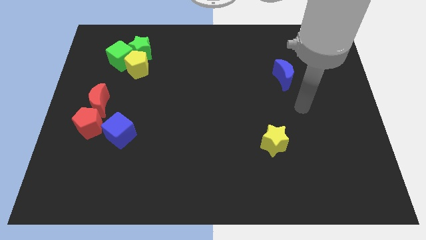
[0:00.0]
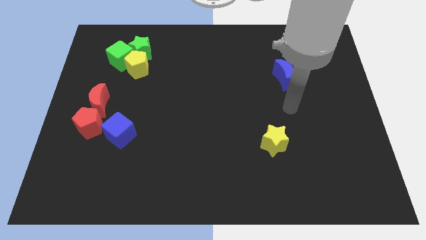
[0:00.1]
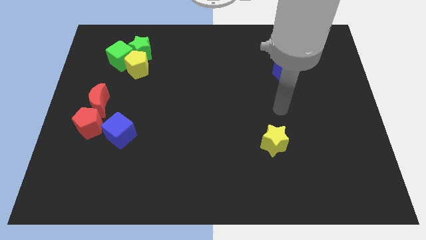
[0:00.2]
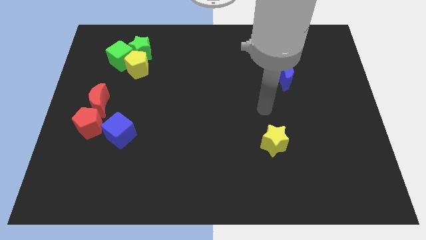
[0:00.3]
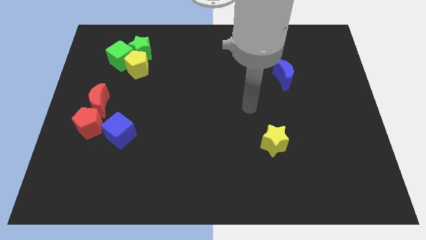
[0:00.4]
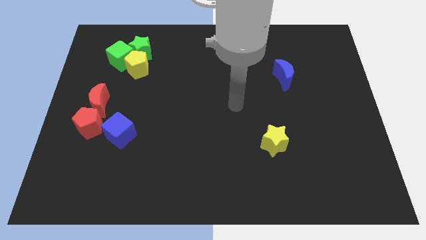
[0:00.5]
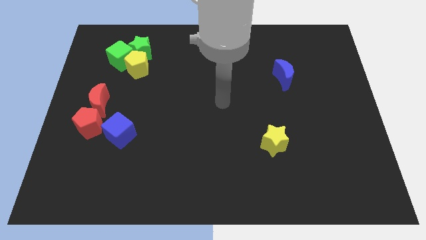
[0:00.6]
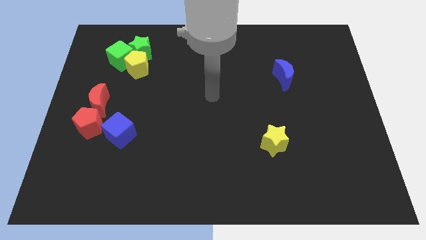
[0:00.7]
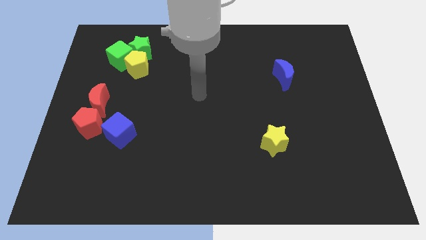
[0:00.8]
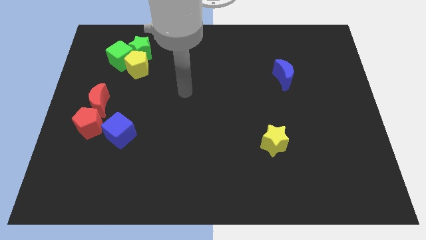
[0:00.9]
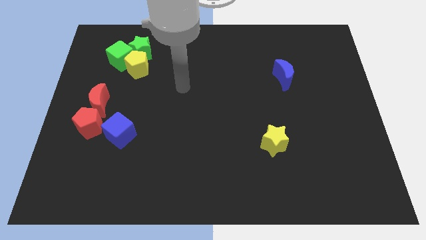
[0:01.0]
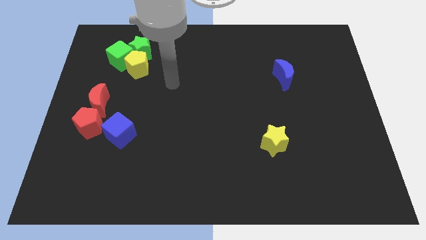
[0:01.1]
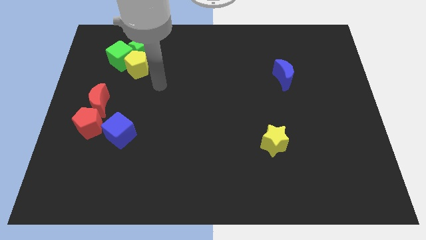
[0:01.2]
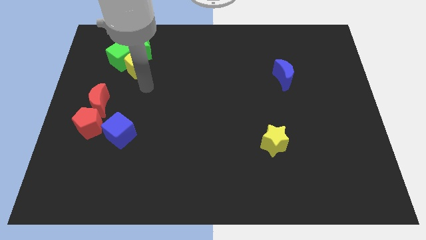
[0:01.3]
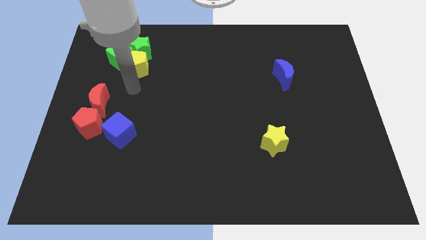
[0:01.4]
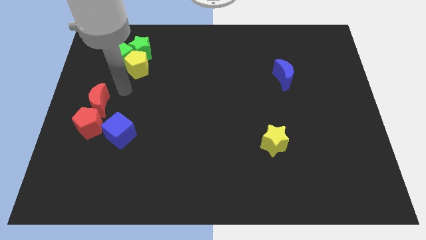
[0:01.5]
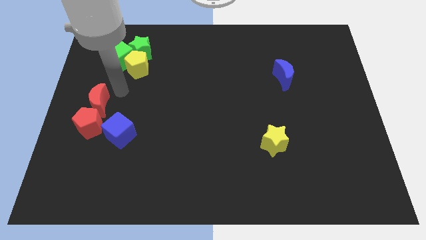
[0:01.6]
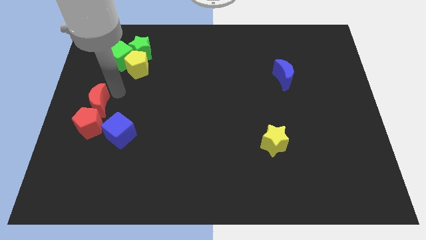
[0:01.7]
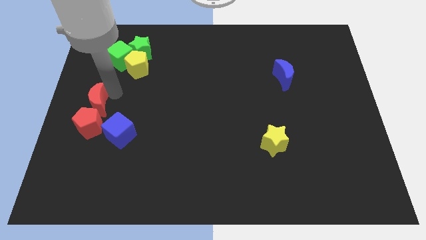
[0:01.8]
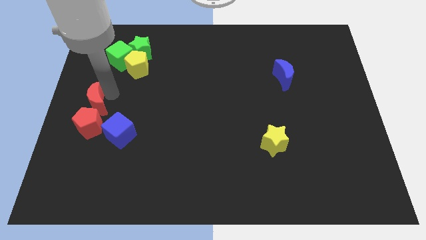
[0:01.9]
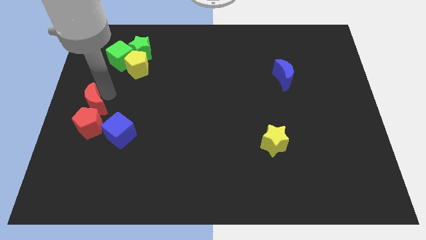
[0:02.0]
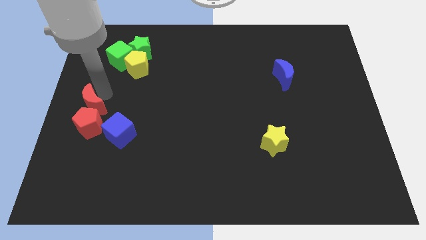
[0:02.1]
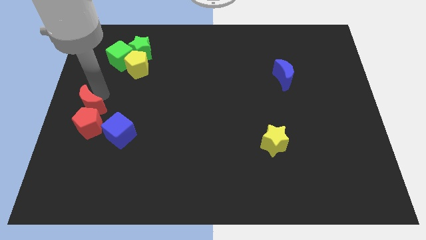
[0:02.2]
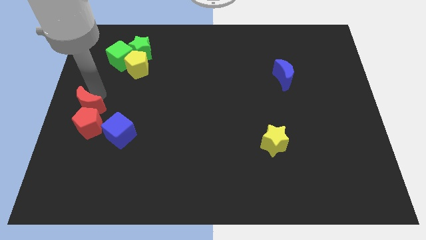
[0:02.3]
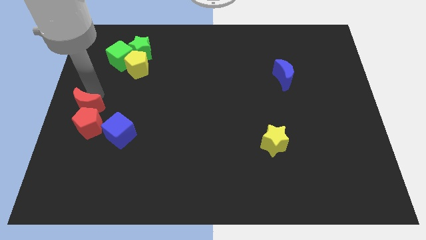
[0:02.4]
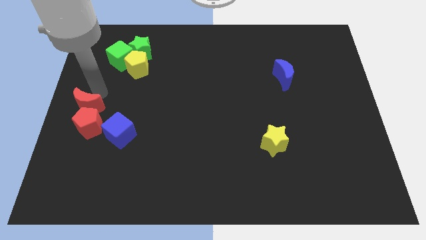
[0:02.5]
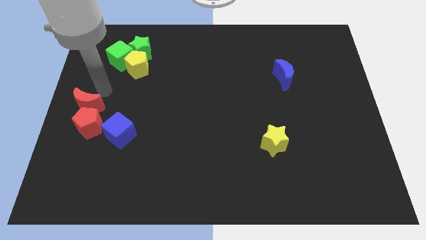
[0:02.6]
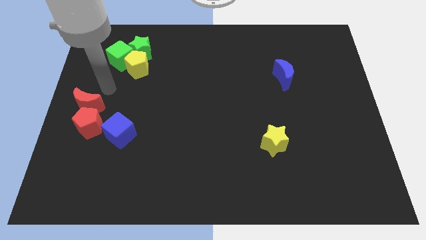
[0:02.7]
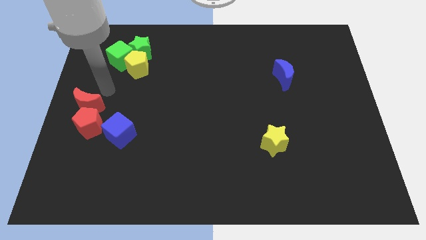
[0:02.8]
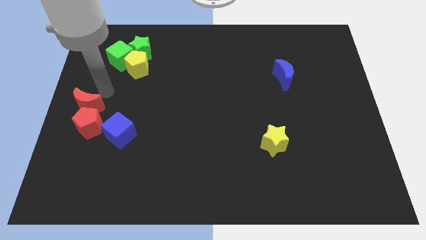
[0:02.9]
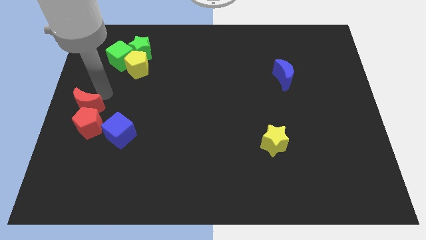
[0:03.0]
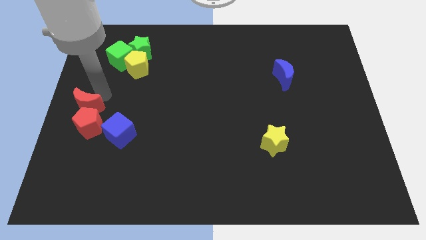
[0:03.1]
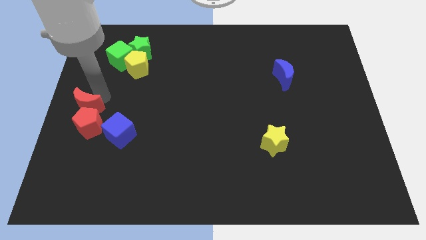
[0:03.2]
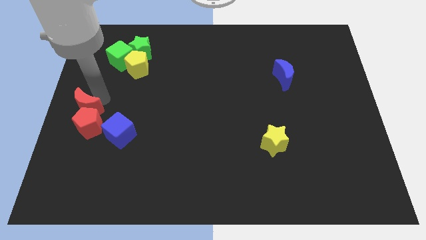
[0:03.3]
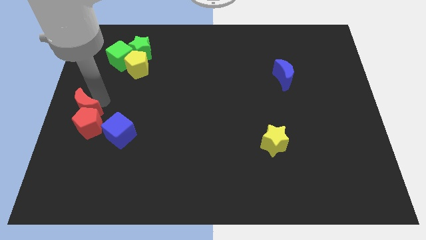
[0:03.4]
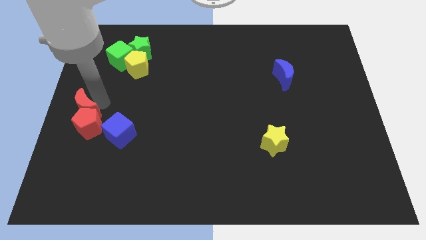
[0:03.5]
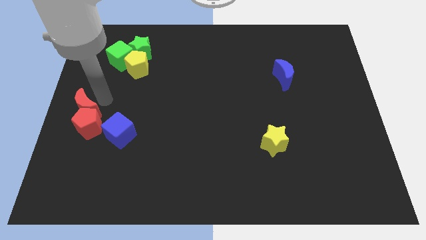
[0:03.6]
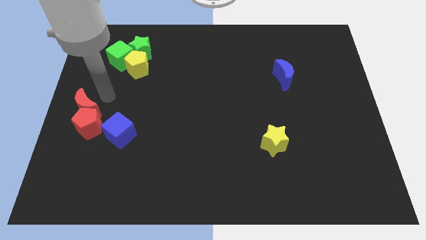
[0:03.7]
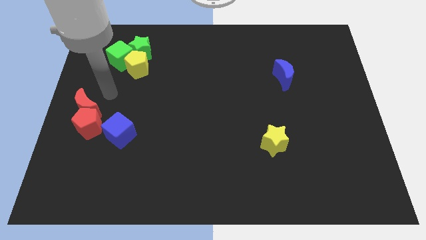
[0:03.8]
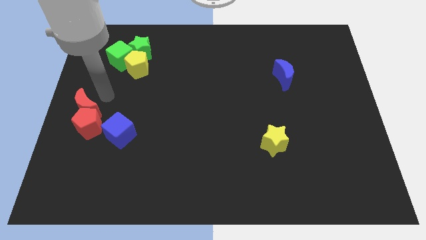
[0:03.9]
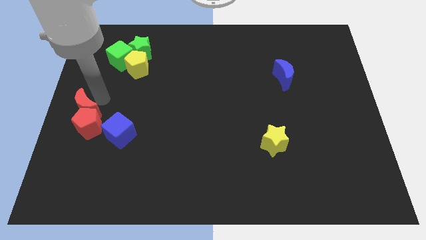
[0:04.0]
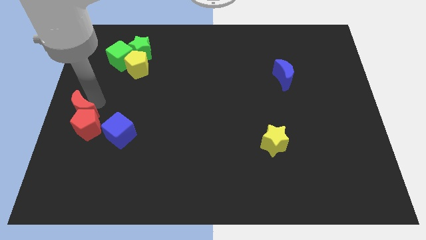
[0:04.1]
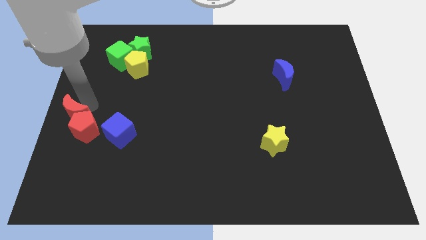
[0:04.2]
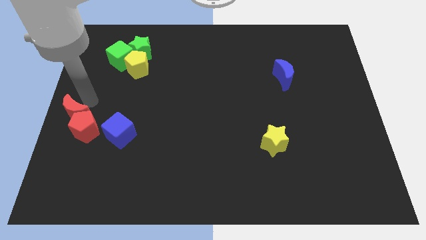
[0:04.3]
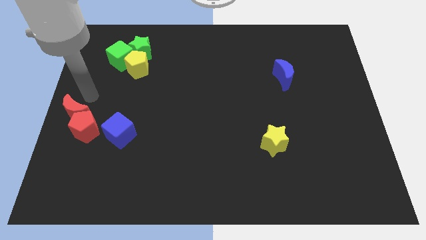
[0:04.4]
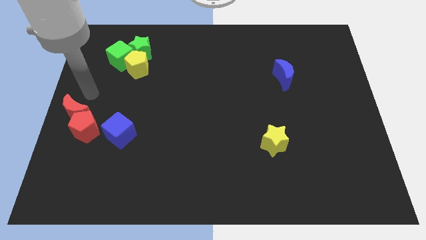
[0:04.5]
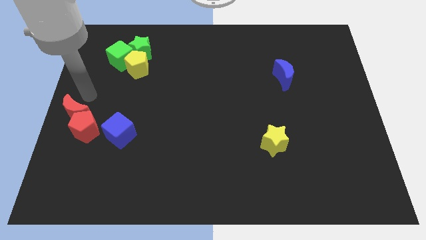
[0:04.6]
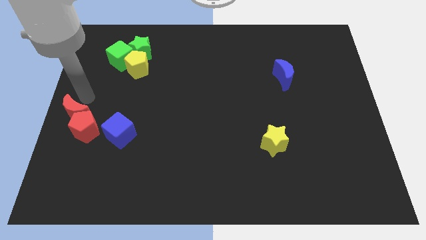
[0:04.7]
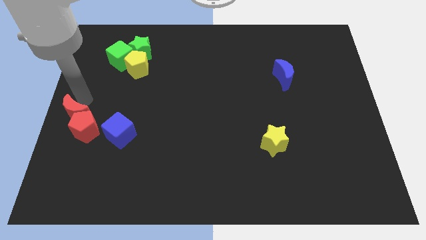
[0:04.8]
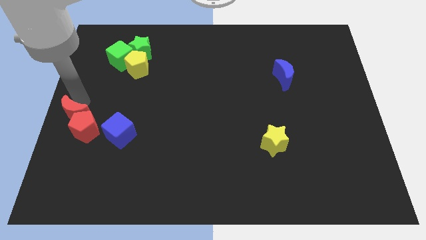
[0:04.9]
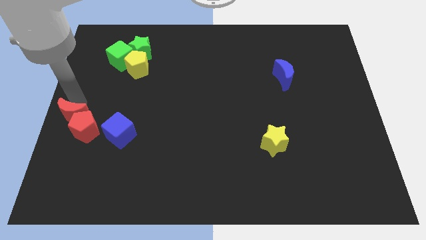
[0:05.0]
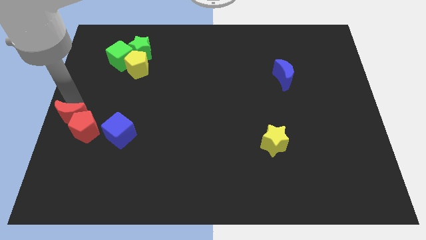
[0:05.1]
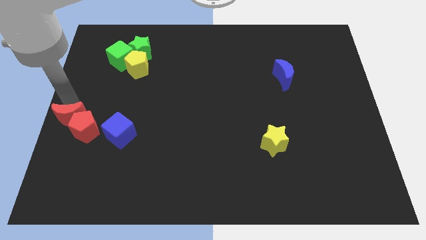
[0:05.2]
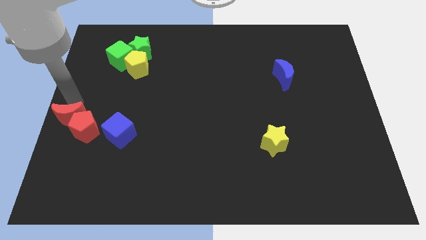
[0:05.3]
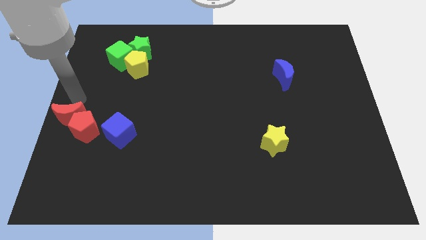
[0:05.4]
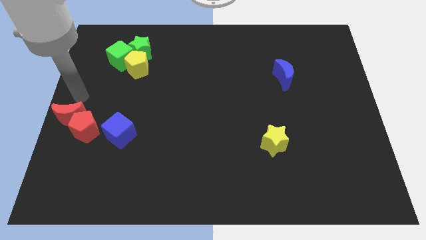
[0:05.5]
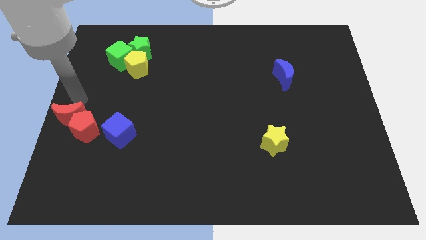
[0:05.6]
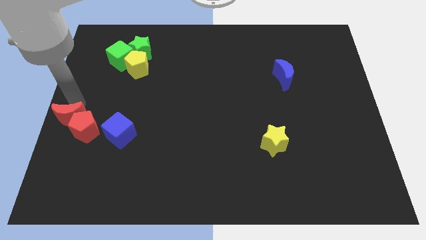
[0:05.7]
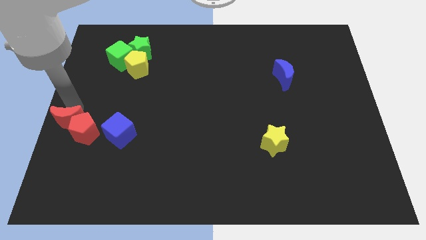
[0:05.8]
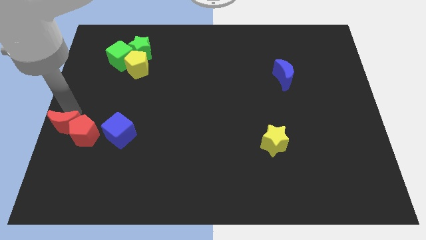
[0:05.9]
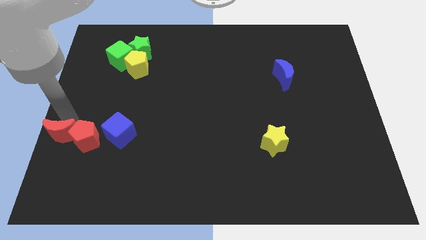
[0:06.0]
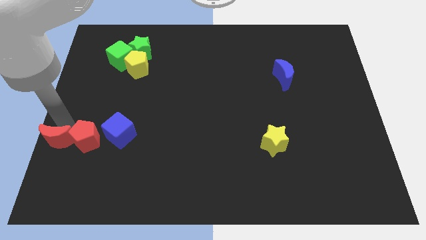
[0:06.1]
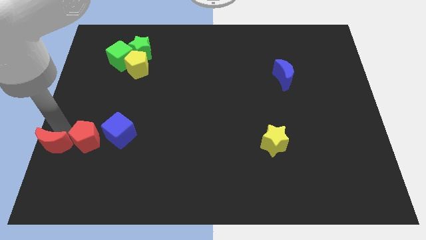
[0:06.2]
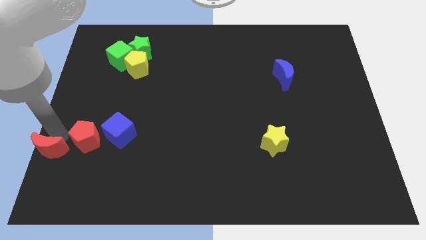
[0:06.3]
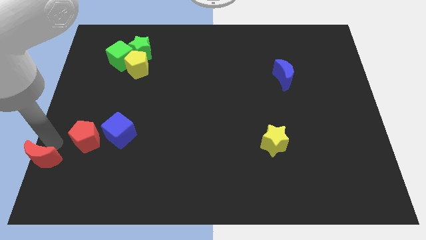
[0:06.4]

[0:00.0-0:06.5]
move the red moon to the lower left corner
